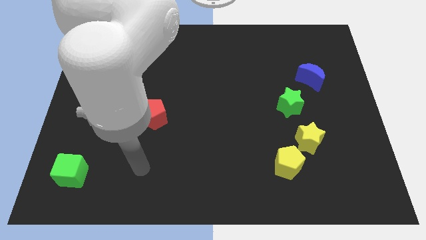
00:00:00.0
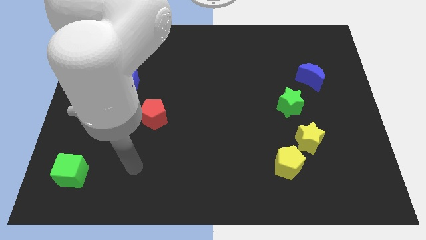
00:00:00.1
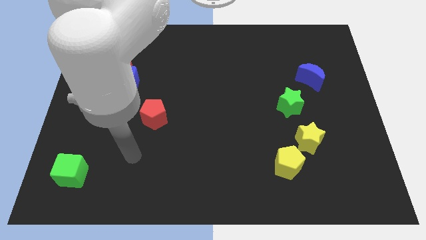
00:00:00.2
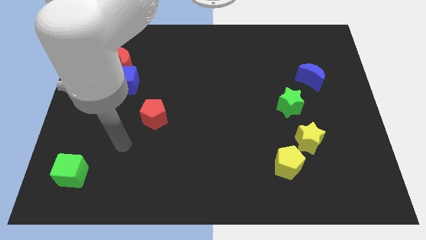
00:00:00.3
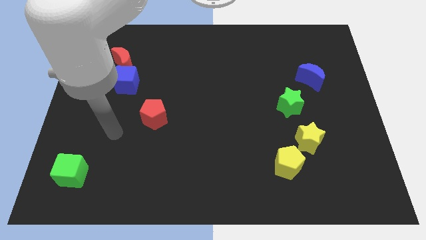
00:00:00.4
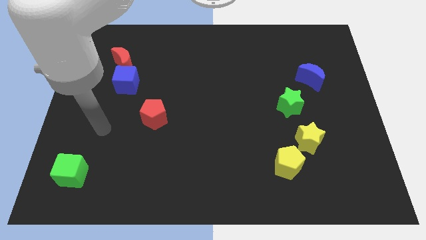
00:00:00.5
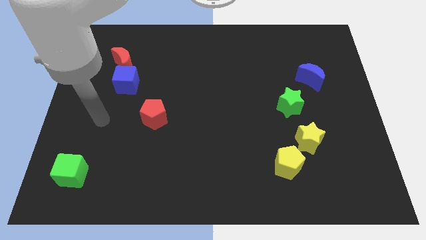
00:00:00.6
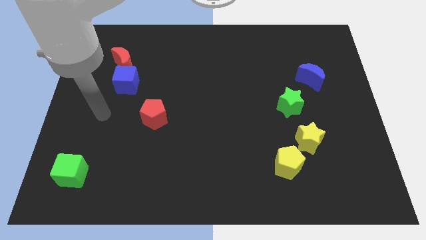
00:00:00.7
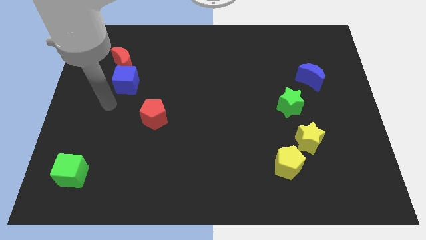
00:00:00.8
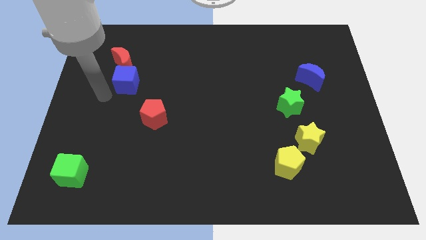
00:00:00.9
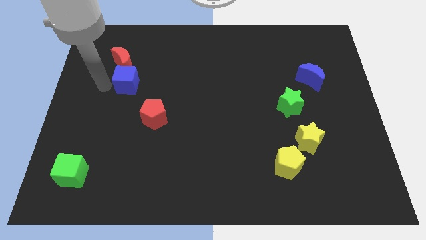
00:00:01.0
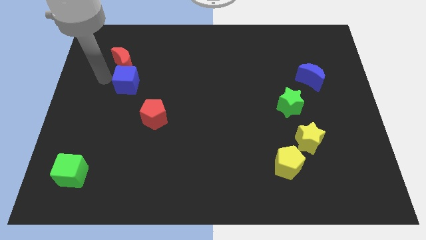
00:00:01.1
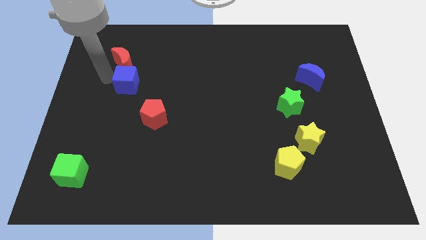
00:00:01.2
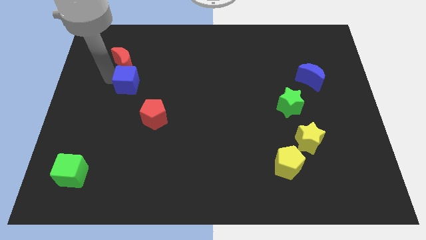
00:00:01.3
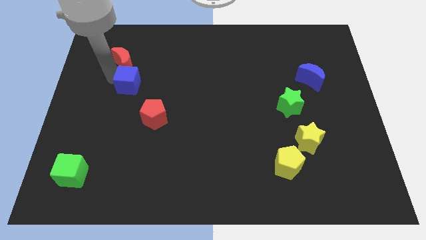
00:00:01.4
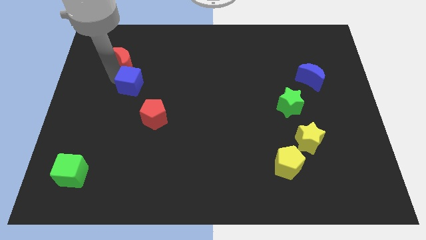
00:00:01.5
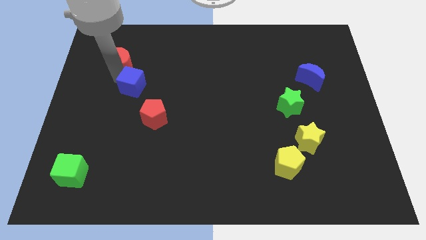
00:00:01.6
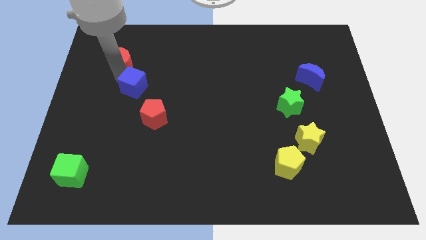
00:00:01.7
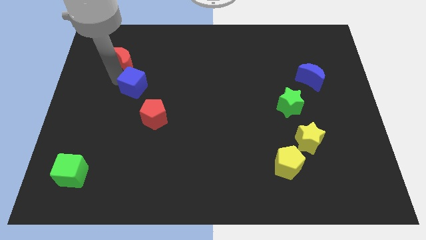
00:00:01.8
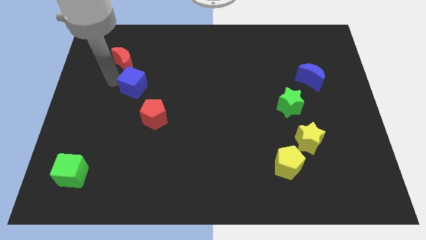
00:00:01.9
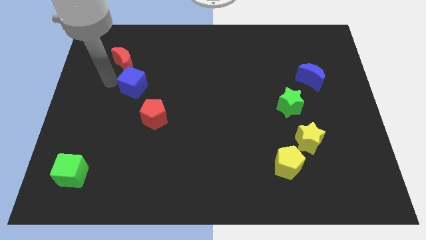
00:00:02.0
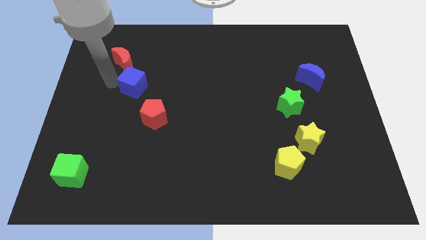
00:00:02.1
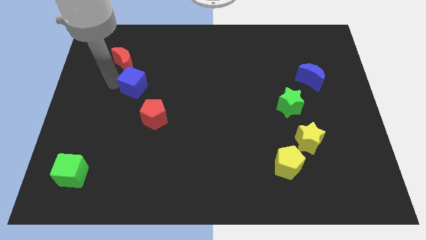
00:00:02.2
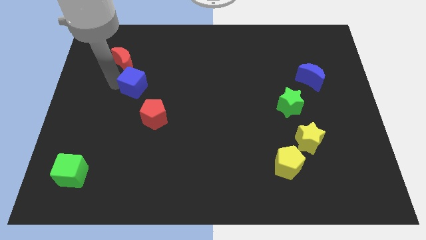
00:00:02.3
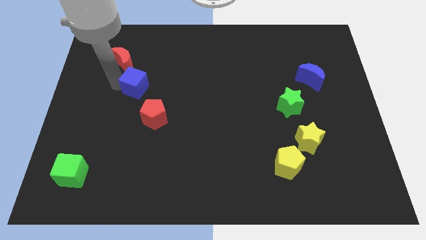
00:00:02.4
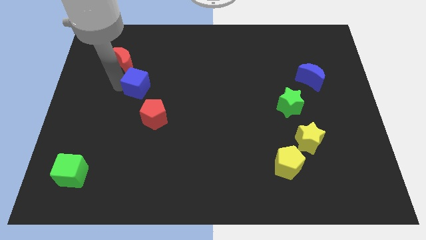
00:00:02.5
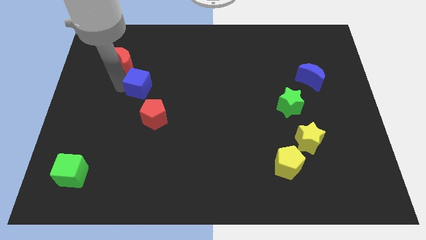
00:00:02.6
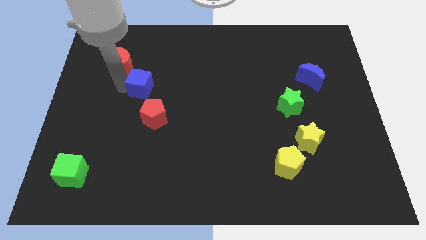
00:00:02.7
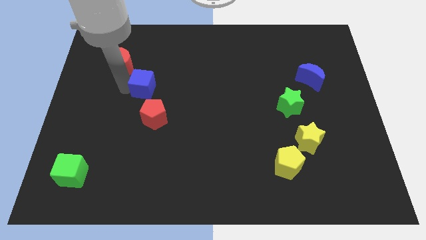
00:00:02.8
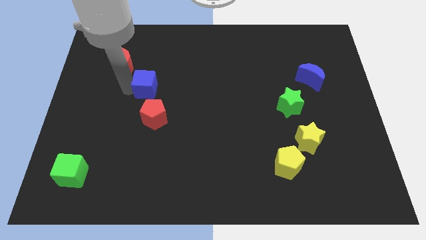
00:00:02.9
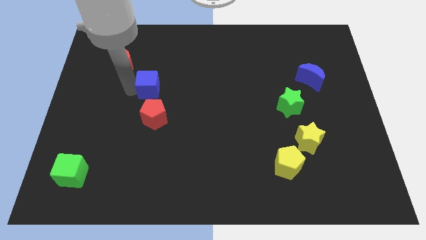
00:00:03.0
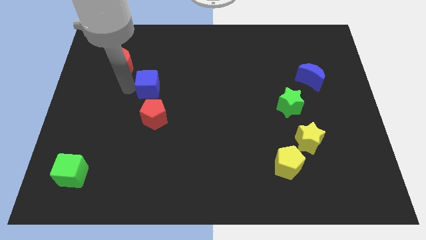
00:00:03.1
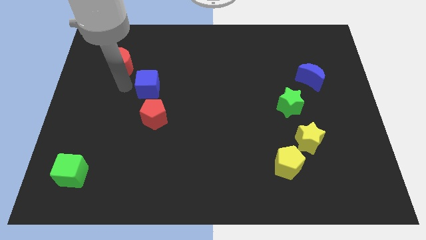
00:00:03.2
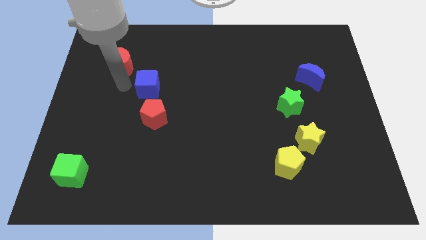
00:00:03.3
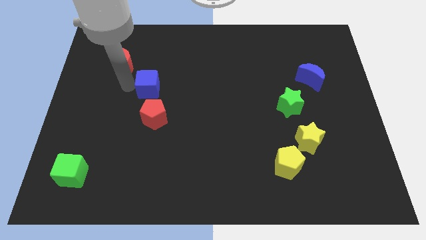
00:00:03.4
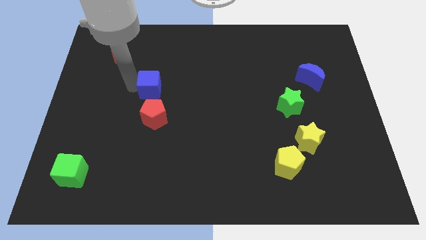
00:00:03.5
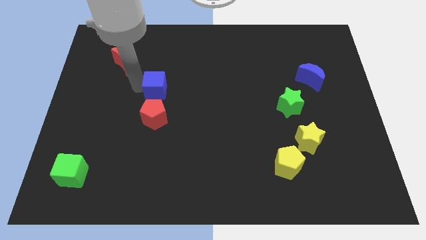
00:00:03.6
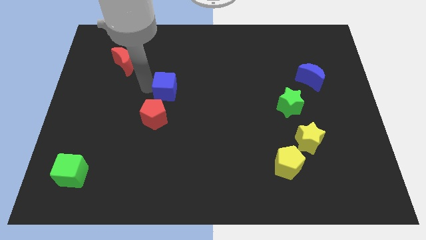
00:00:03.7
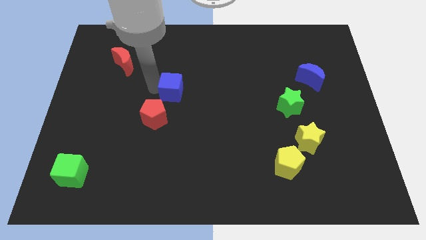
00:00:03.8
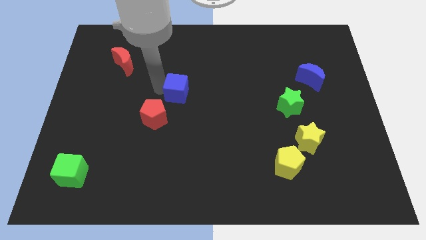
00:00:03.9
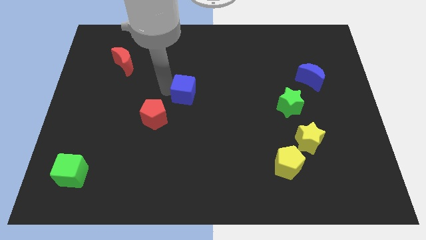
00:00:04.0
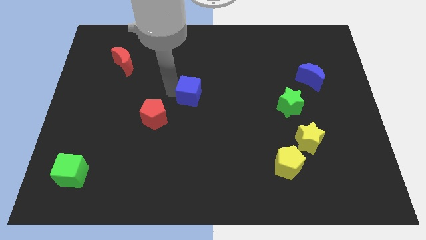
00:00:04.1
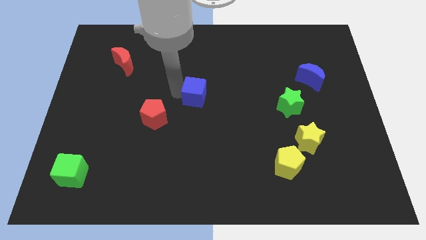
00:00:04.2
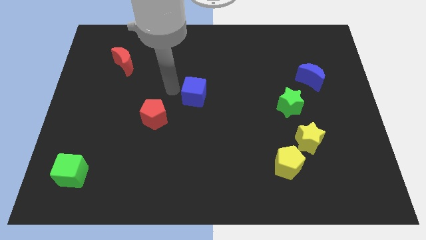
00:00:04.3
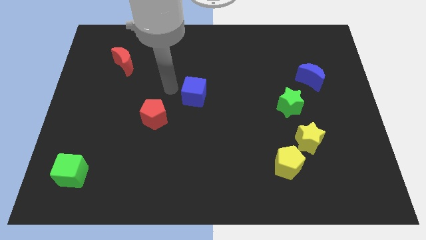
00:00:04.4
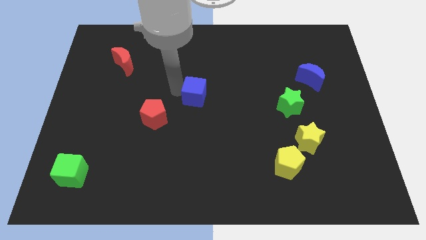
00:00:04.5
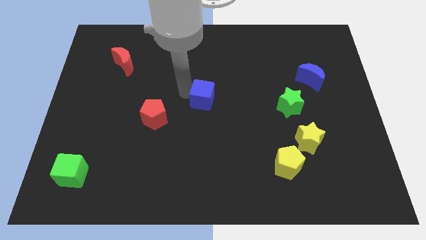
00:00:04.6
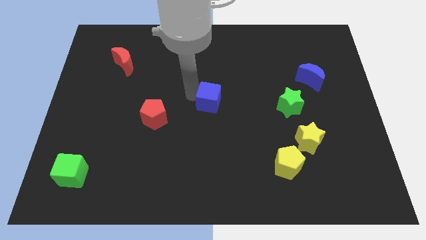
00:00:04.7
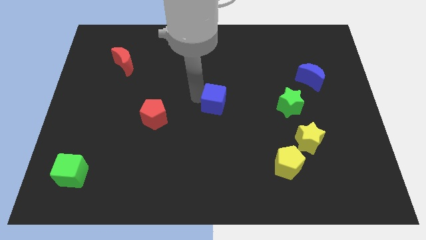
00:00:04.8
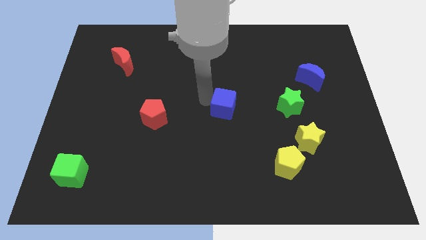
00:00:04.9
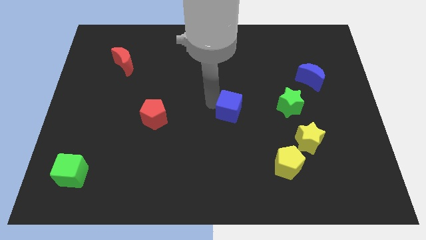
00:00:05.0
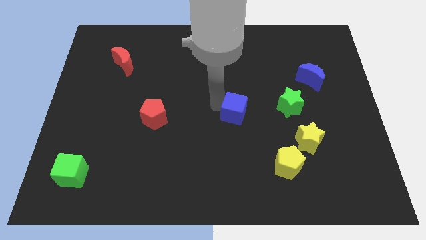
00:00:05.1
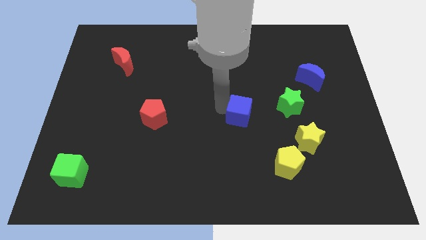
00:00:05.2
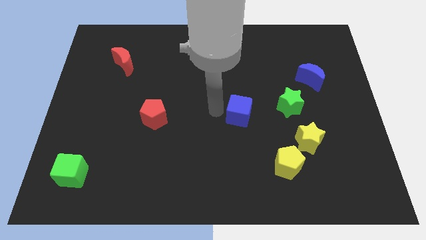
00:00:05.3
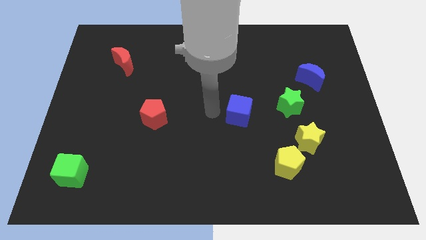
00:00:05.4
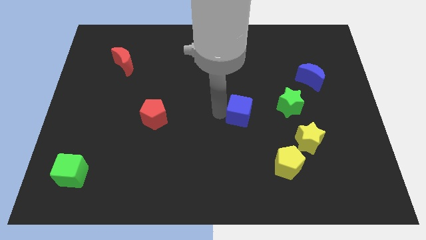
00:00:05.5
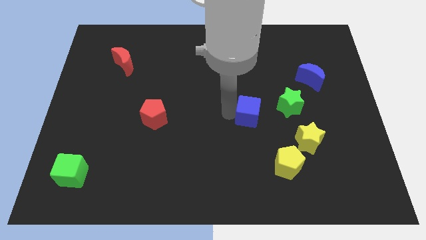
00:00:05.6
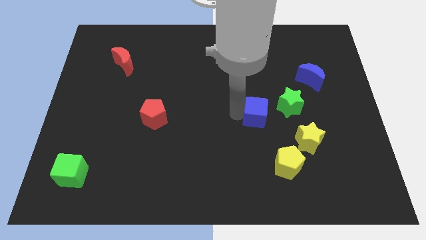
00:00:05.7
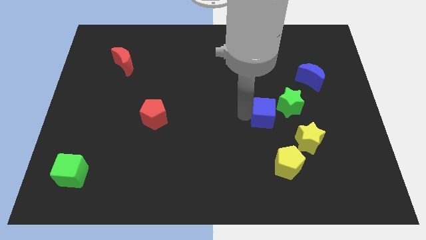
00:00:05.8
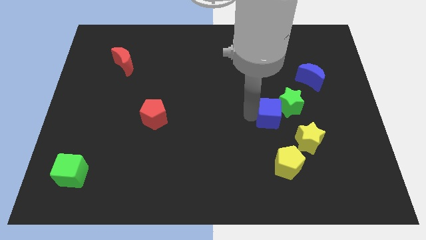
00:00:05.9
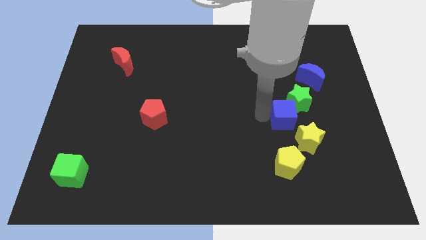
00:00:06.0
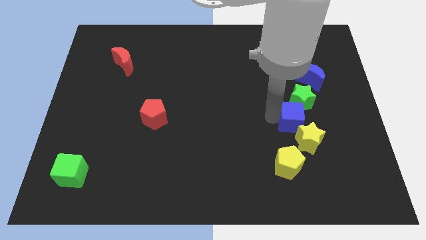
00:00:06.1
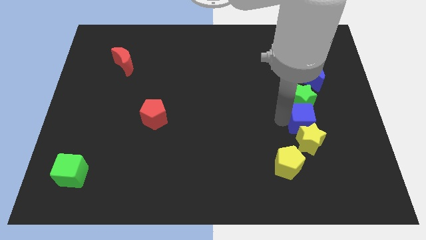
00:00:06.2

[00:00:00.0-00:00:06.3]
slide the blue cube to the bottom right side of the green star
